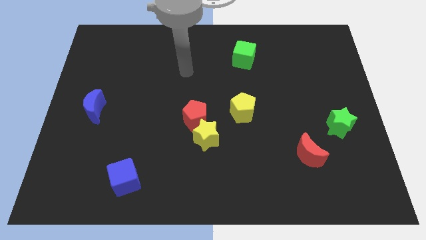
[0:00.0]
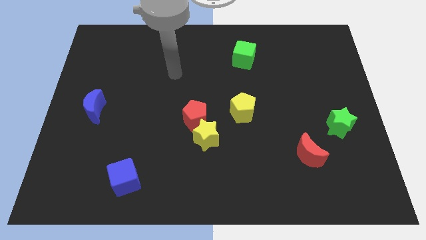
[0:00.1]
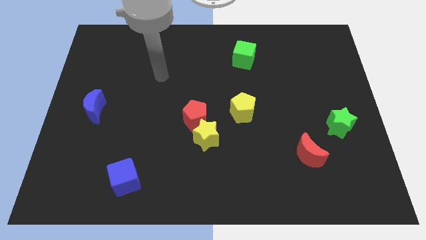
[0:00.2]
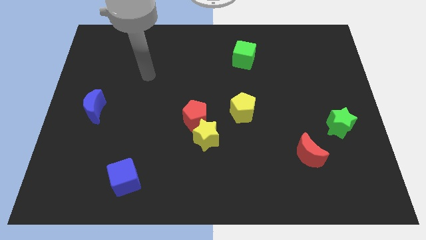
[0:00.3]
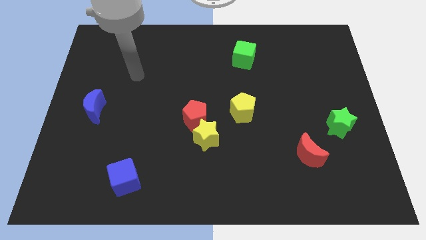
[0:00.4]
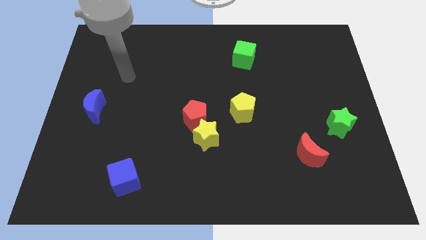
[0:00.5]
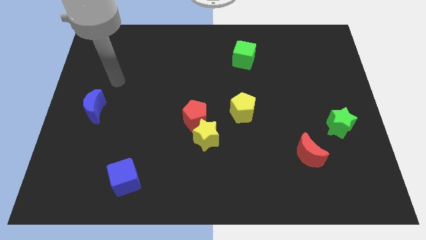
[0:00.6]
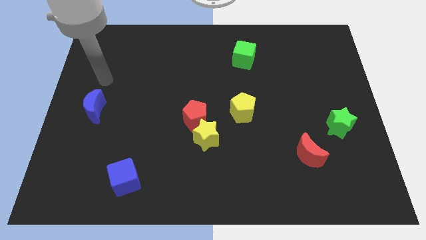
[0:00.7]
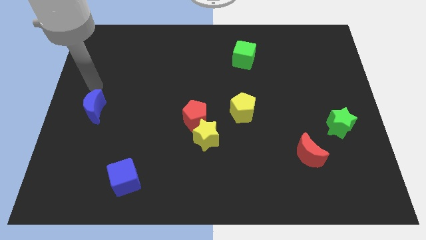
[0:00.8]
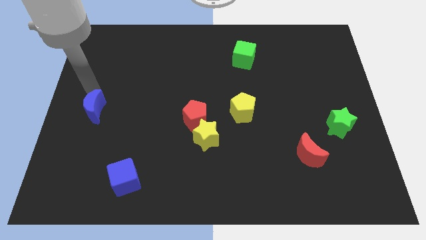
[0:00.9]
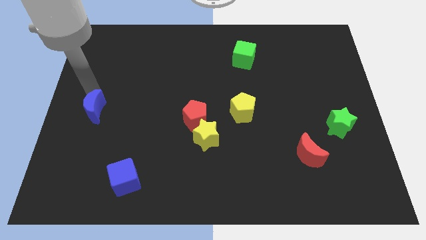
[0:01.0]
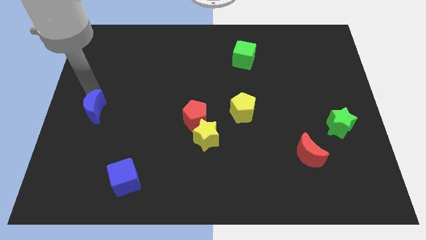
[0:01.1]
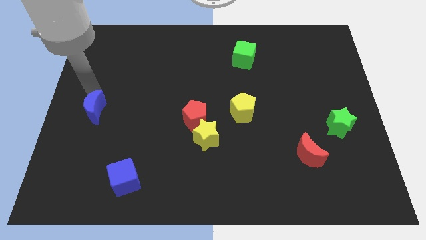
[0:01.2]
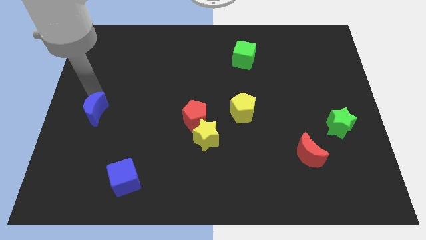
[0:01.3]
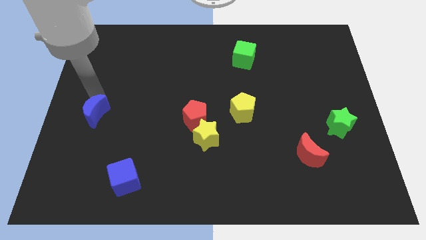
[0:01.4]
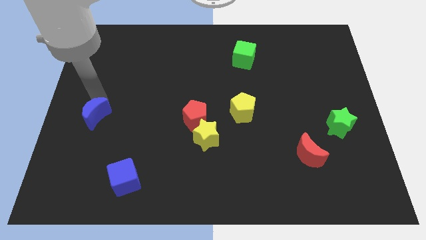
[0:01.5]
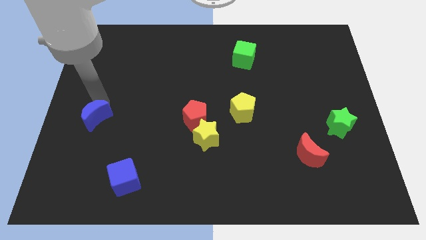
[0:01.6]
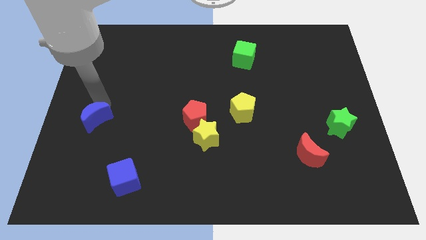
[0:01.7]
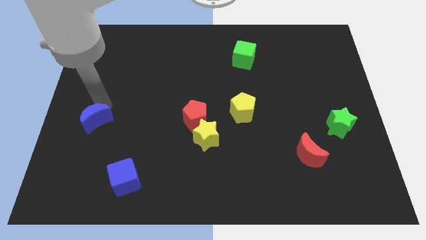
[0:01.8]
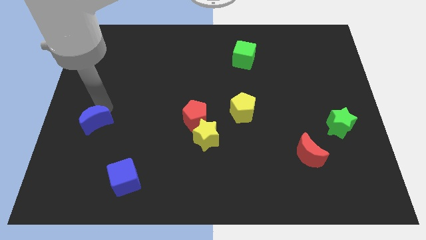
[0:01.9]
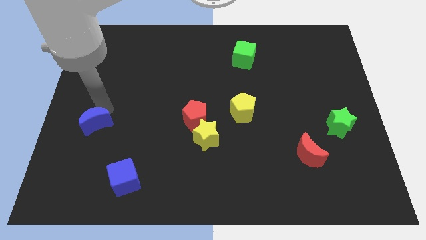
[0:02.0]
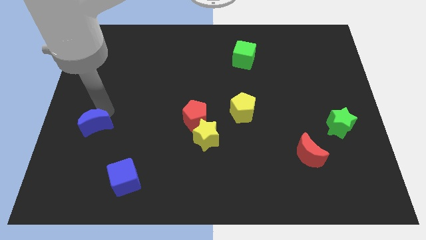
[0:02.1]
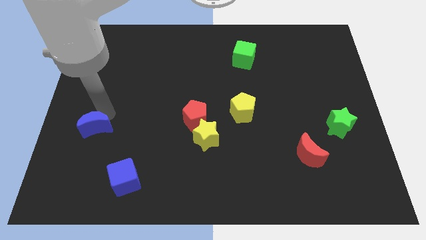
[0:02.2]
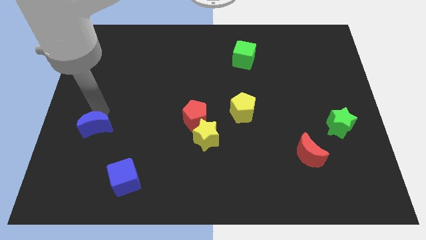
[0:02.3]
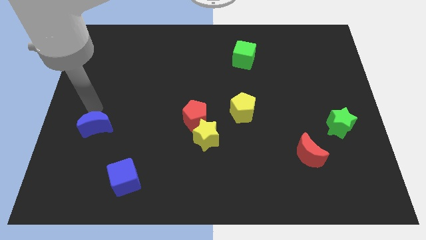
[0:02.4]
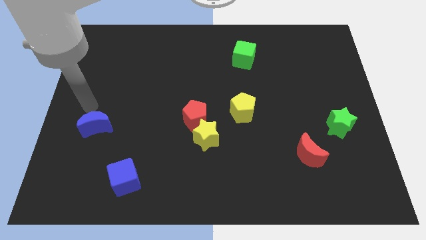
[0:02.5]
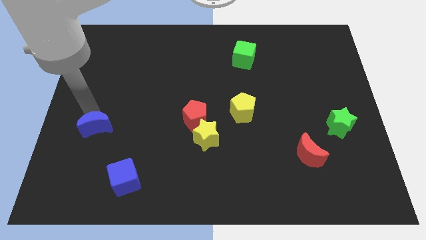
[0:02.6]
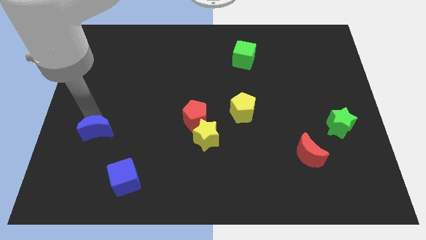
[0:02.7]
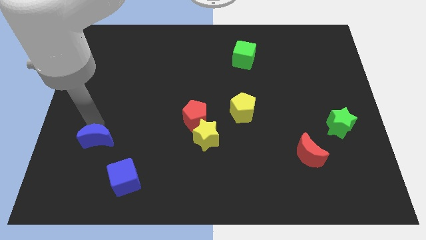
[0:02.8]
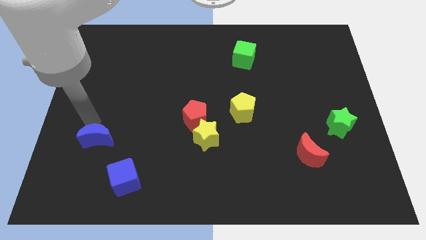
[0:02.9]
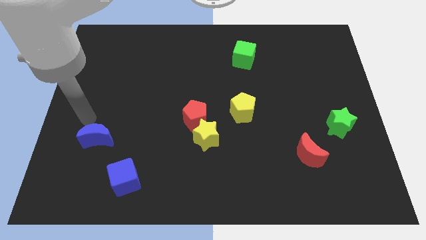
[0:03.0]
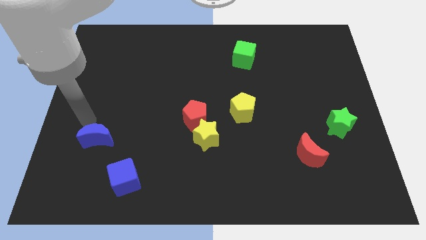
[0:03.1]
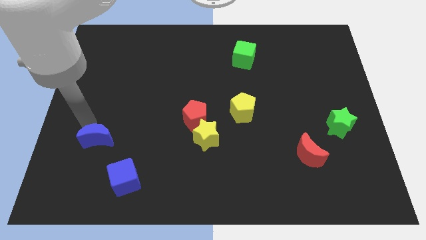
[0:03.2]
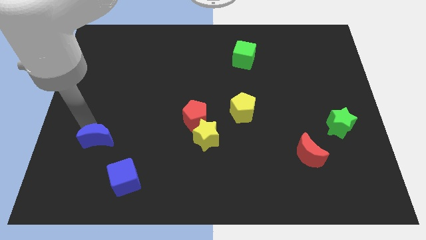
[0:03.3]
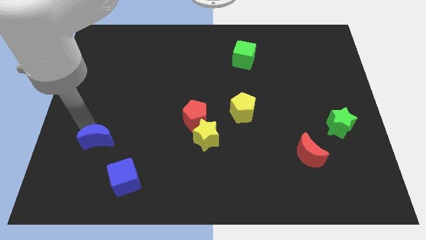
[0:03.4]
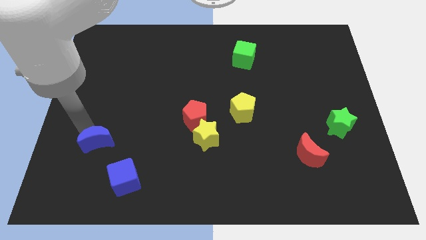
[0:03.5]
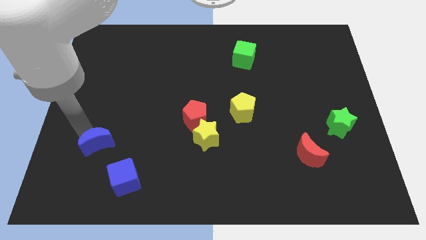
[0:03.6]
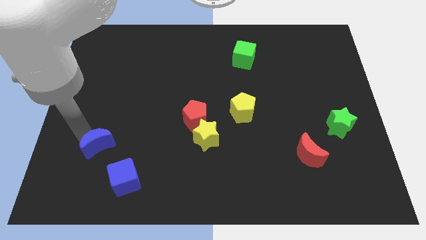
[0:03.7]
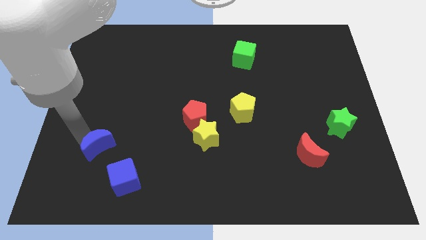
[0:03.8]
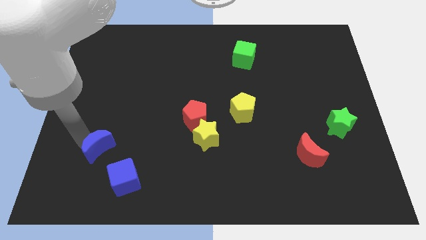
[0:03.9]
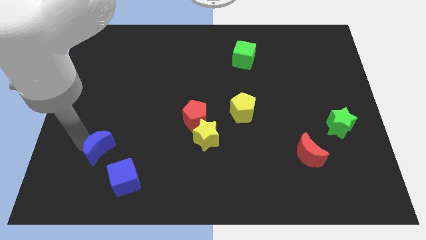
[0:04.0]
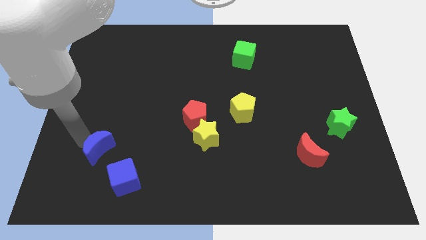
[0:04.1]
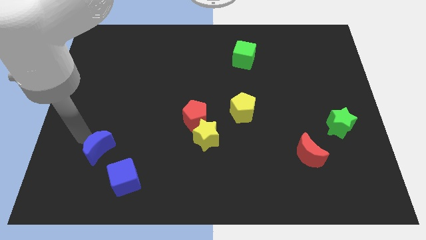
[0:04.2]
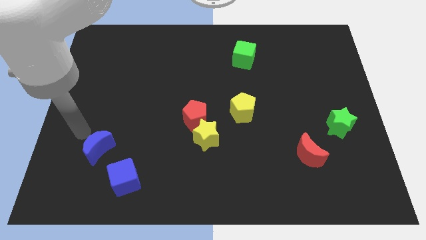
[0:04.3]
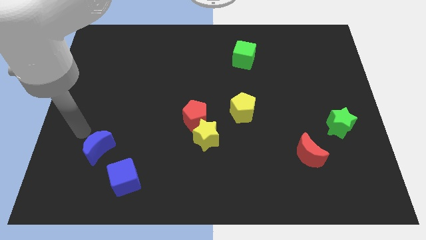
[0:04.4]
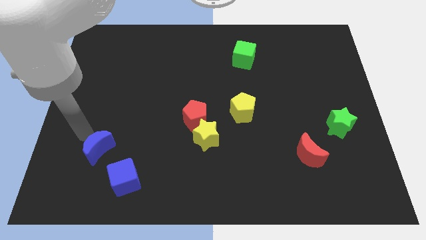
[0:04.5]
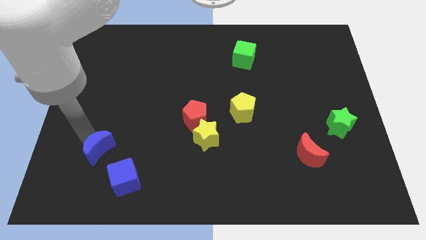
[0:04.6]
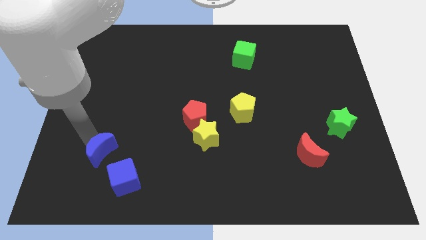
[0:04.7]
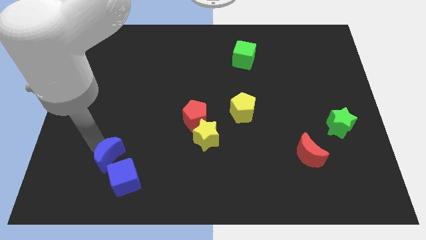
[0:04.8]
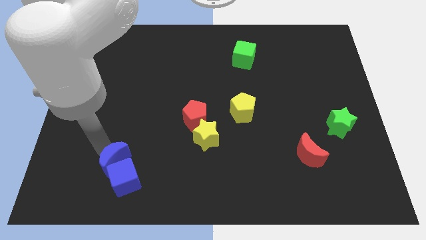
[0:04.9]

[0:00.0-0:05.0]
put the blue moon towards the blue cube

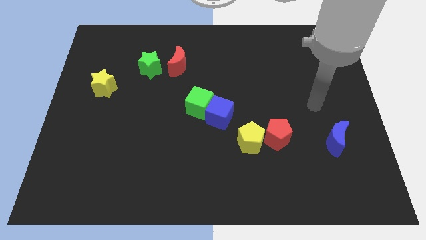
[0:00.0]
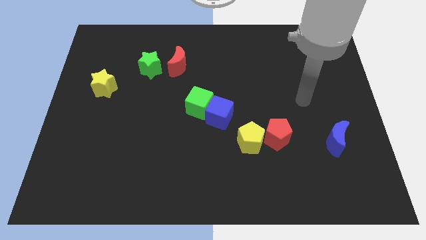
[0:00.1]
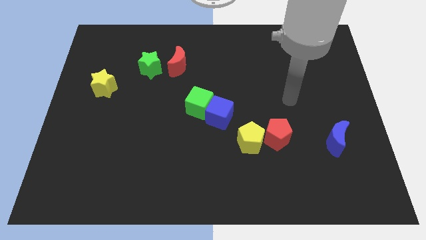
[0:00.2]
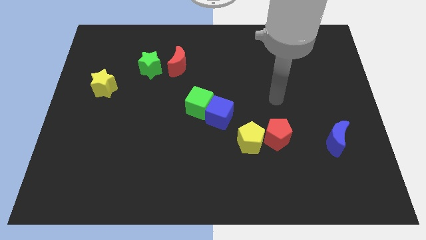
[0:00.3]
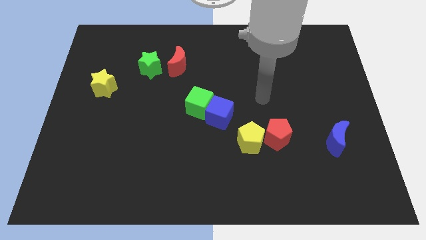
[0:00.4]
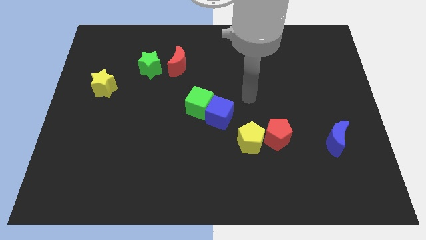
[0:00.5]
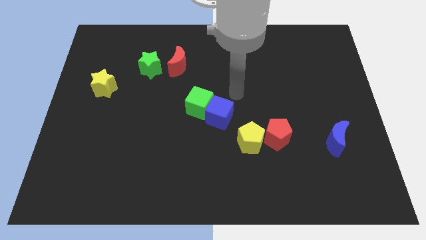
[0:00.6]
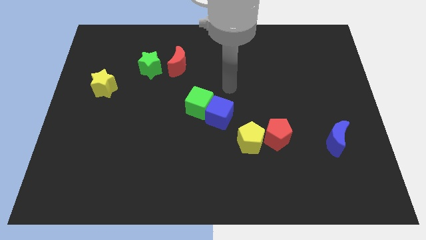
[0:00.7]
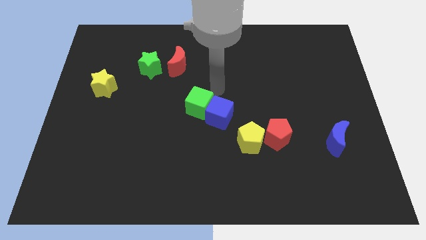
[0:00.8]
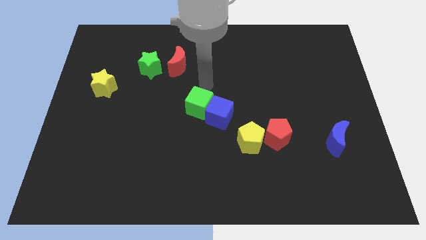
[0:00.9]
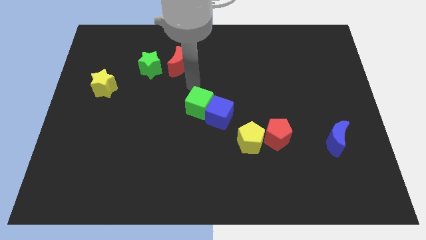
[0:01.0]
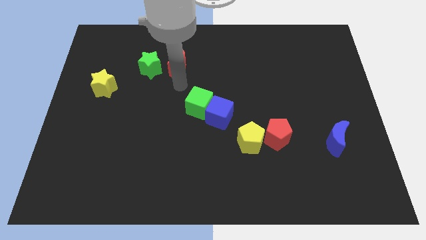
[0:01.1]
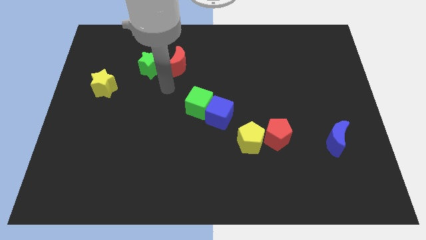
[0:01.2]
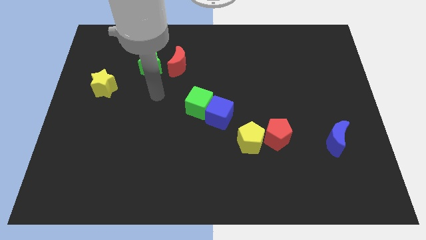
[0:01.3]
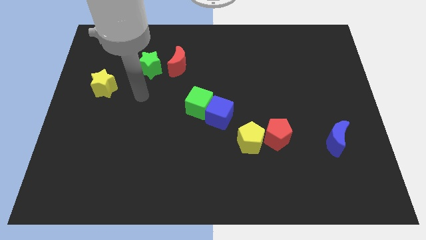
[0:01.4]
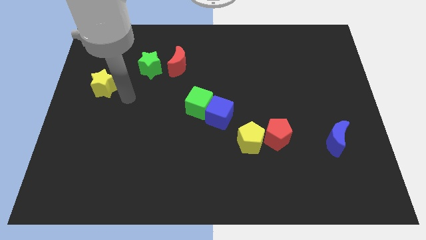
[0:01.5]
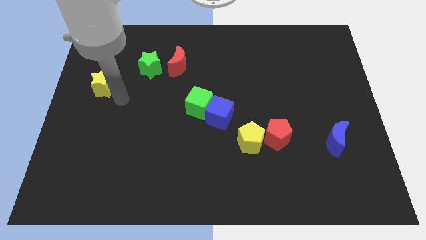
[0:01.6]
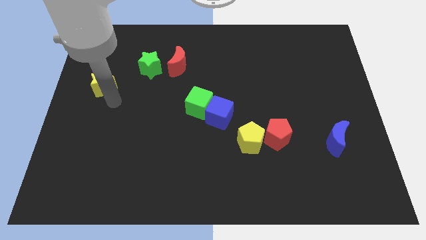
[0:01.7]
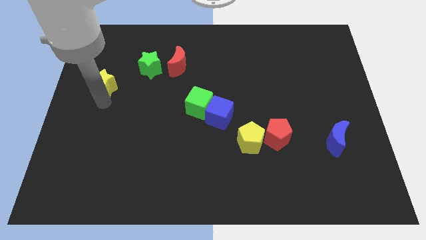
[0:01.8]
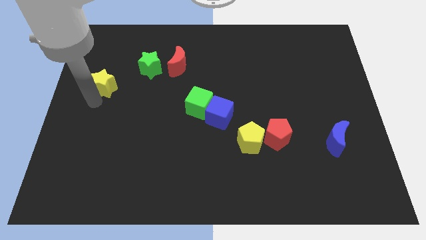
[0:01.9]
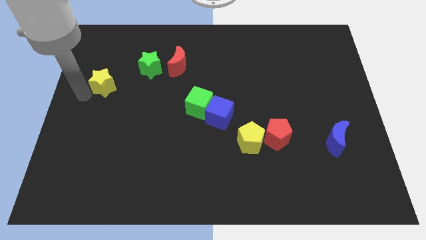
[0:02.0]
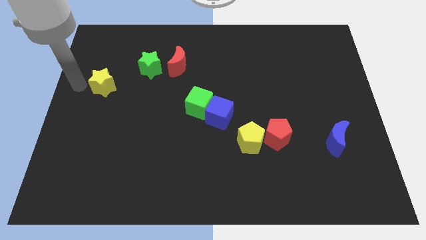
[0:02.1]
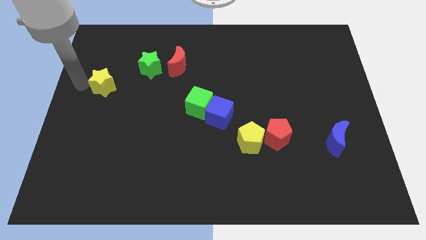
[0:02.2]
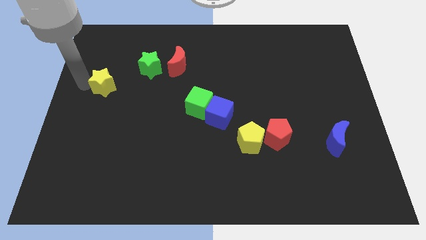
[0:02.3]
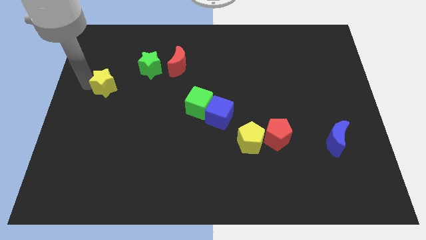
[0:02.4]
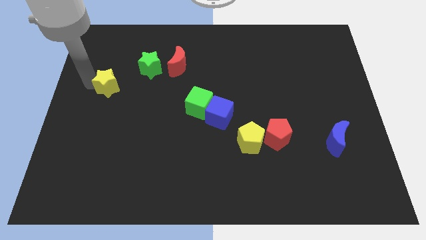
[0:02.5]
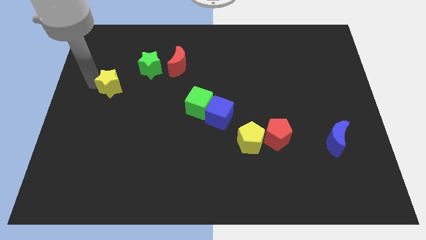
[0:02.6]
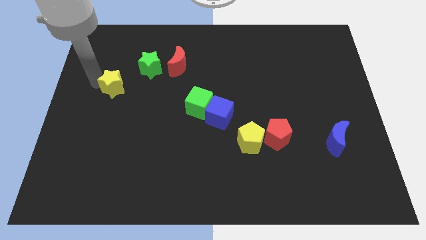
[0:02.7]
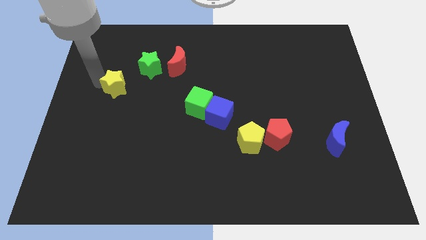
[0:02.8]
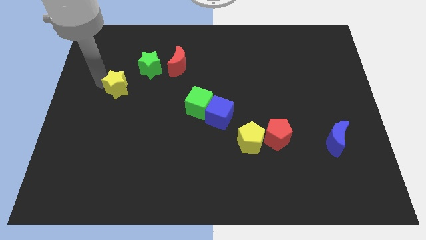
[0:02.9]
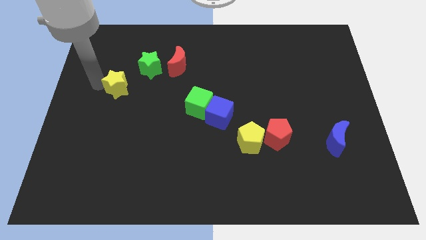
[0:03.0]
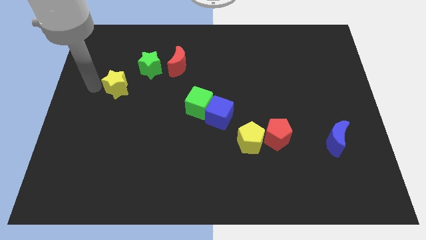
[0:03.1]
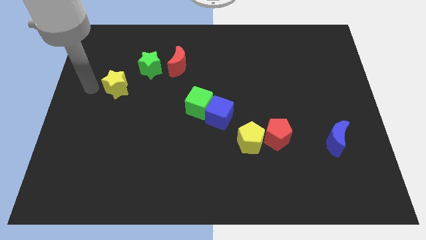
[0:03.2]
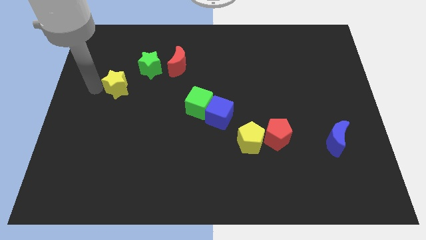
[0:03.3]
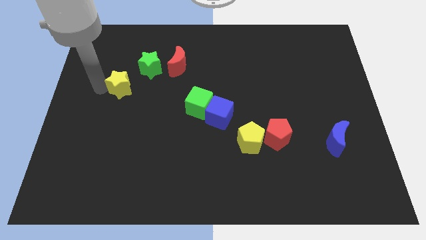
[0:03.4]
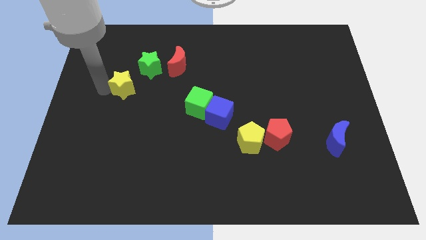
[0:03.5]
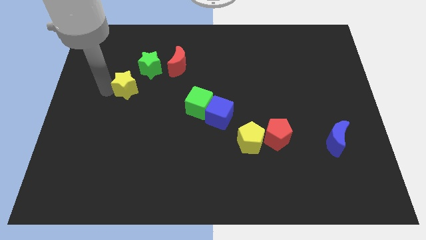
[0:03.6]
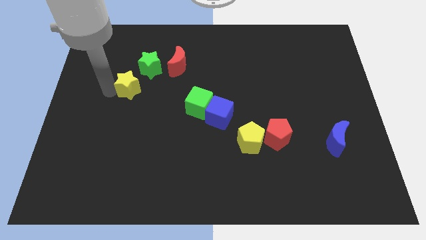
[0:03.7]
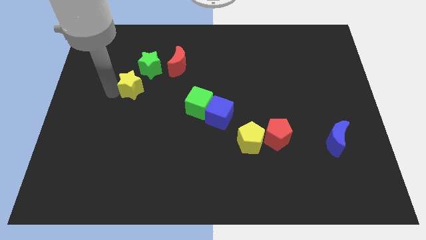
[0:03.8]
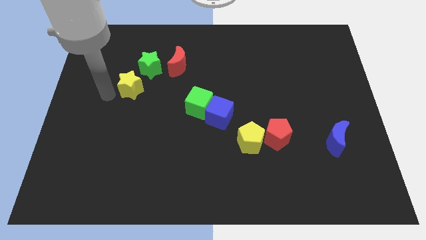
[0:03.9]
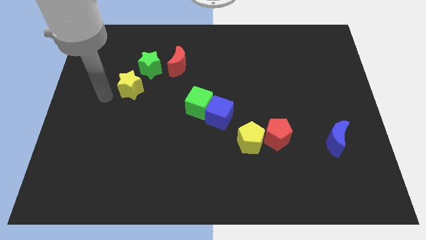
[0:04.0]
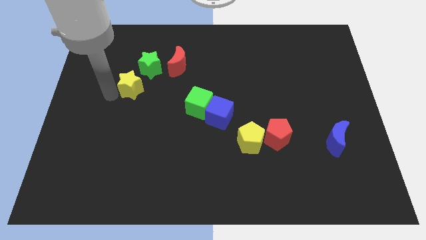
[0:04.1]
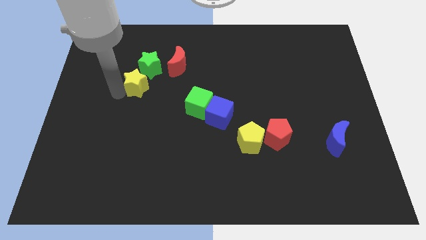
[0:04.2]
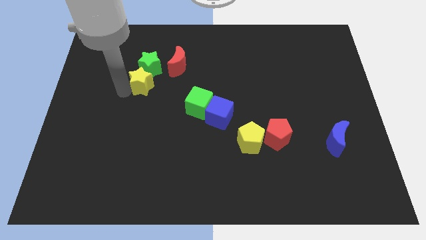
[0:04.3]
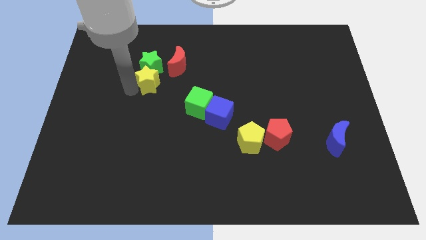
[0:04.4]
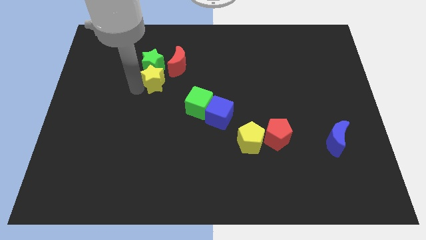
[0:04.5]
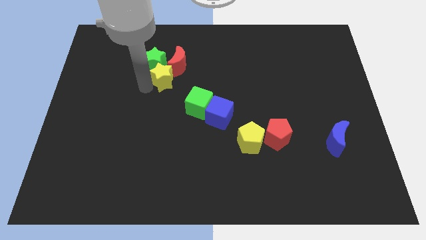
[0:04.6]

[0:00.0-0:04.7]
put the yellow star next to the red moon
